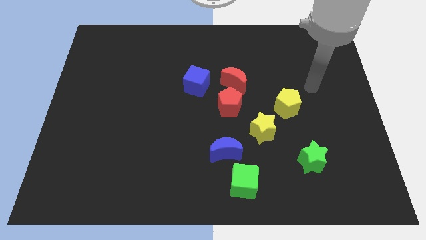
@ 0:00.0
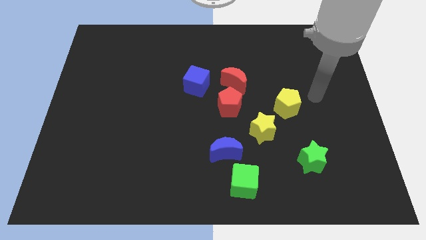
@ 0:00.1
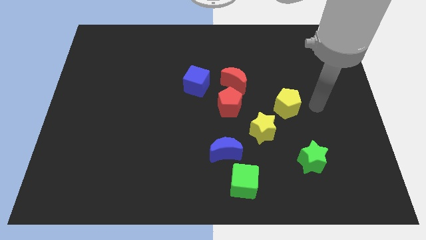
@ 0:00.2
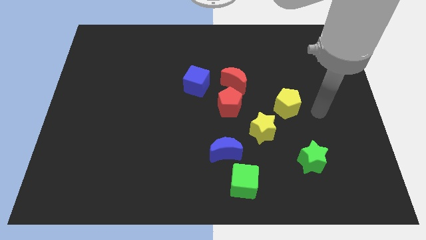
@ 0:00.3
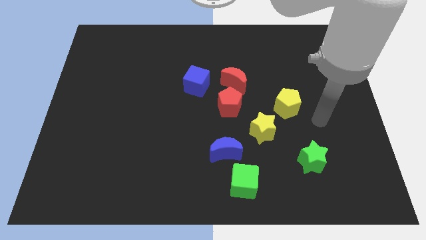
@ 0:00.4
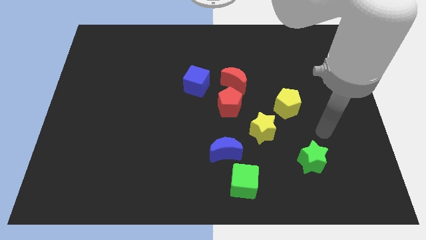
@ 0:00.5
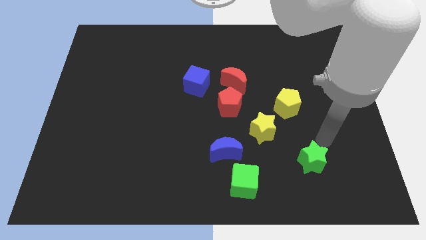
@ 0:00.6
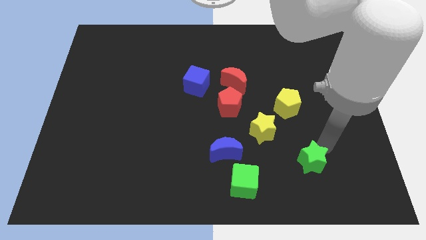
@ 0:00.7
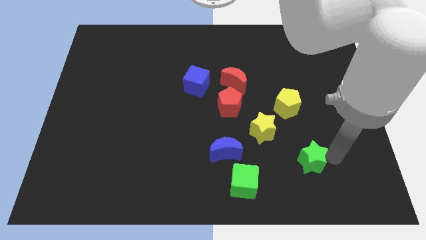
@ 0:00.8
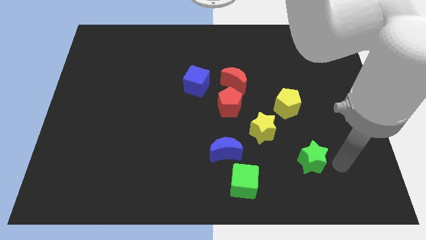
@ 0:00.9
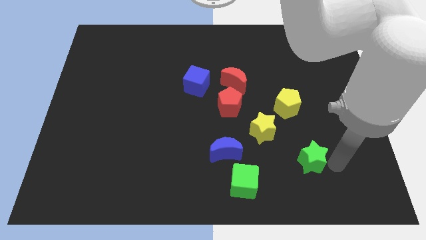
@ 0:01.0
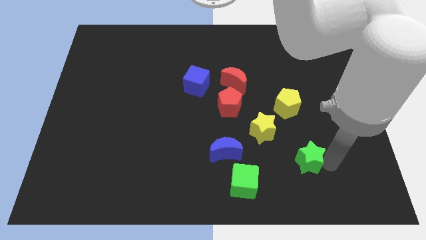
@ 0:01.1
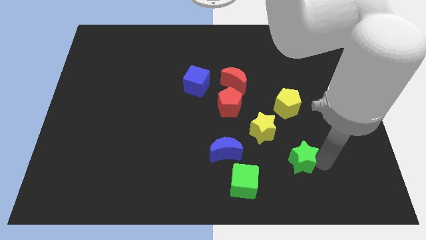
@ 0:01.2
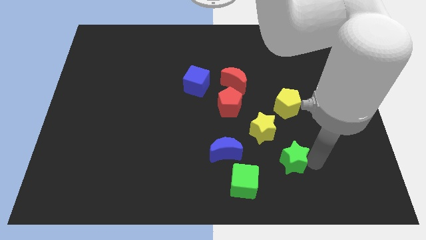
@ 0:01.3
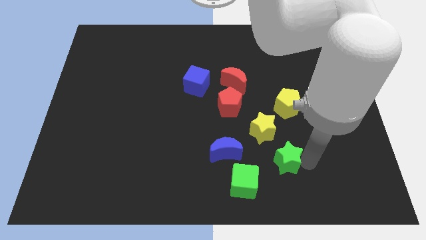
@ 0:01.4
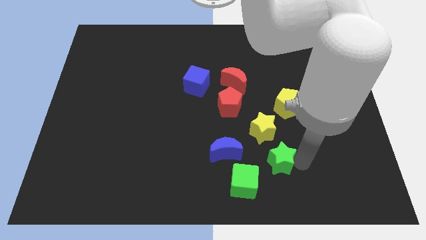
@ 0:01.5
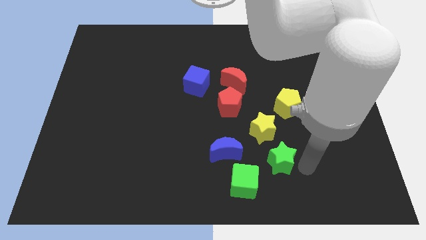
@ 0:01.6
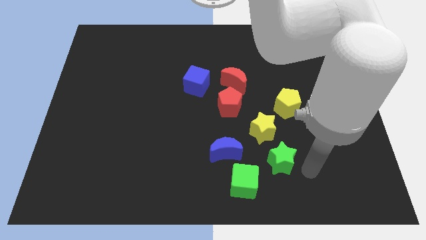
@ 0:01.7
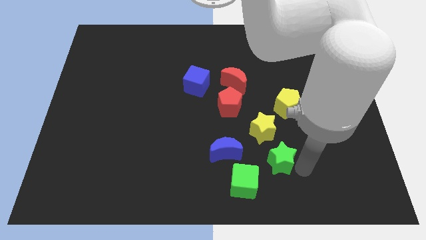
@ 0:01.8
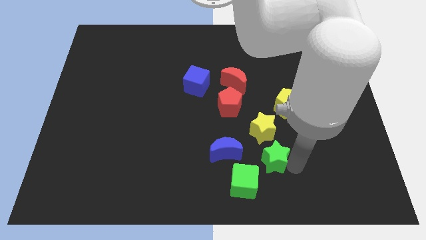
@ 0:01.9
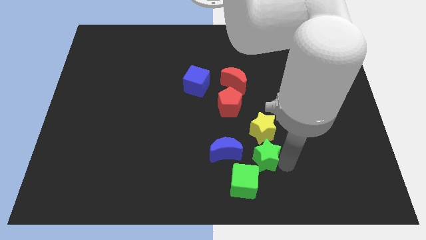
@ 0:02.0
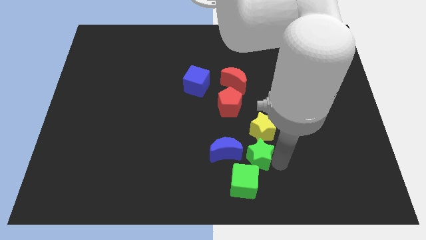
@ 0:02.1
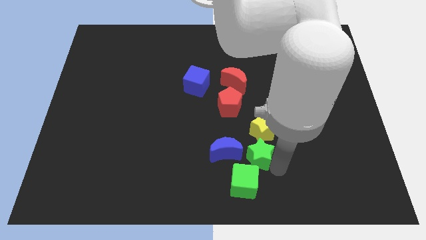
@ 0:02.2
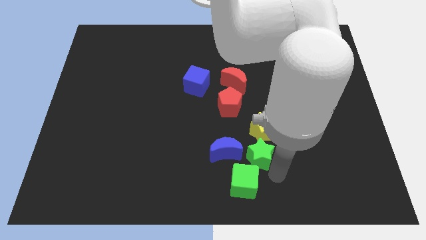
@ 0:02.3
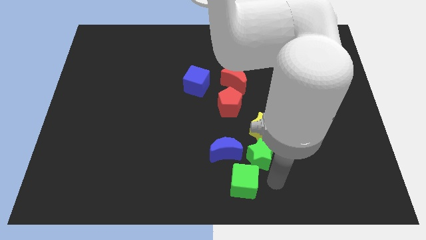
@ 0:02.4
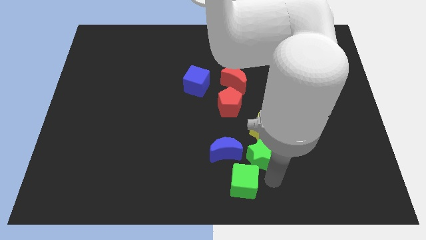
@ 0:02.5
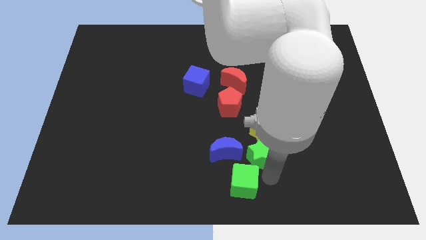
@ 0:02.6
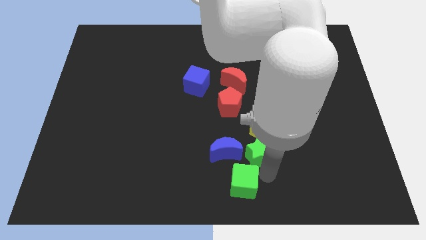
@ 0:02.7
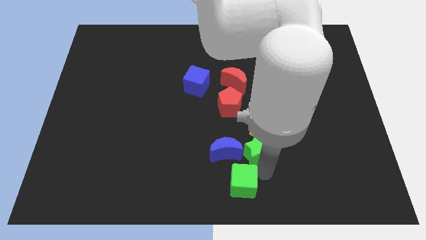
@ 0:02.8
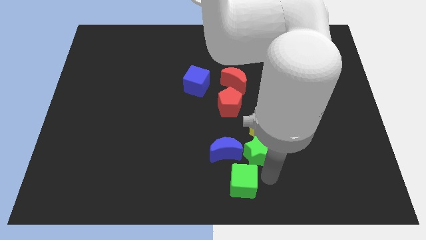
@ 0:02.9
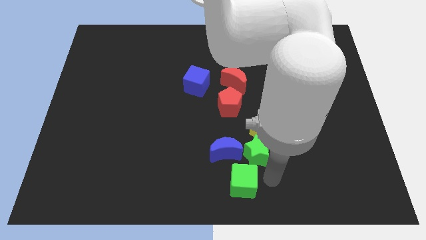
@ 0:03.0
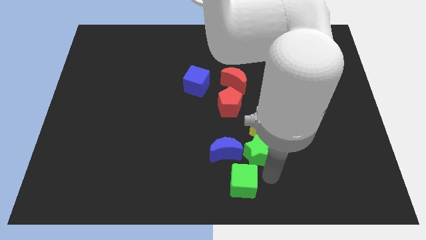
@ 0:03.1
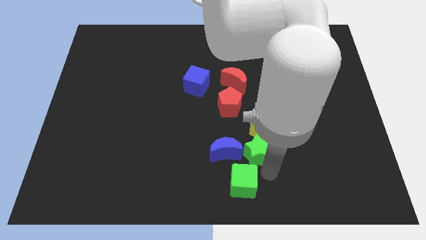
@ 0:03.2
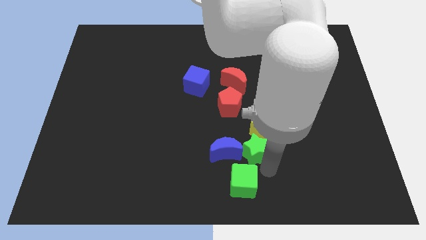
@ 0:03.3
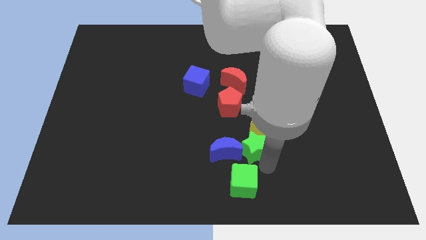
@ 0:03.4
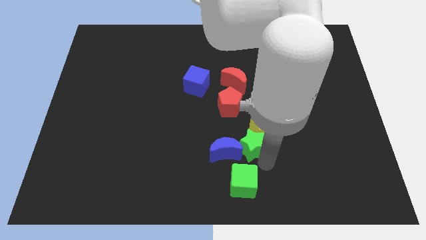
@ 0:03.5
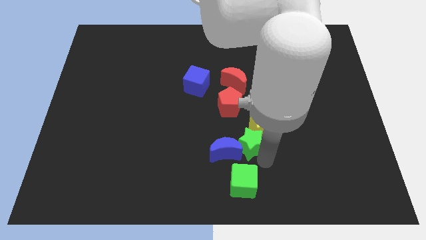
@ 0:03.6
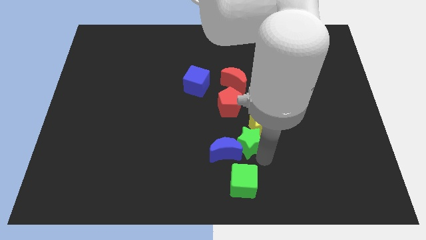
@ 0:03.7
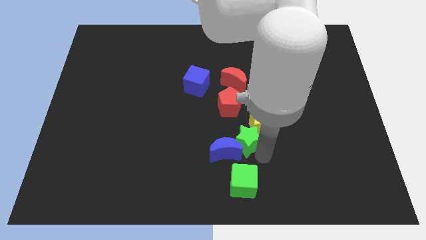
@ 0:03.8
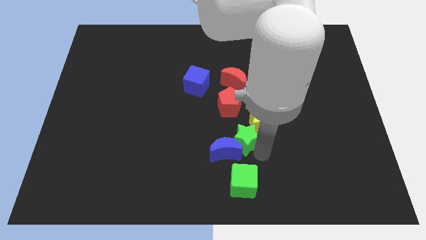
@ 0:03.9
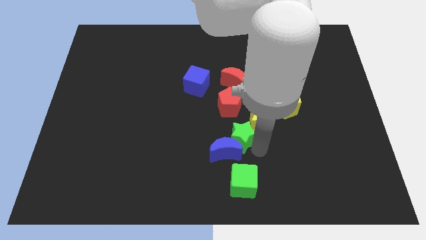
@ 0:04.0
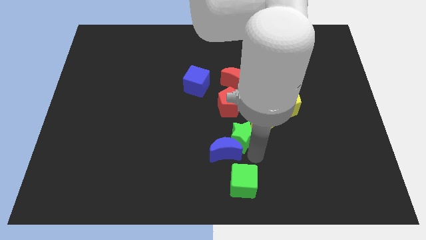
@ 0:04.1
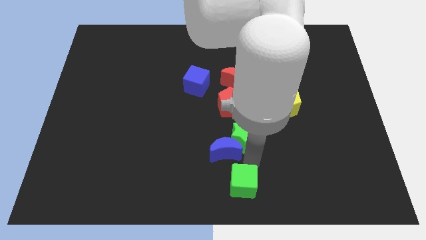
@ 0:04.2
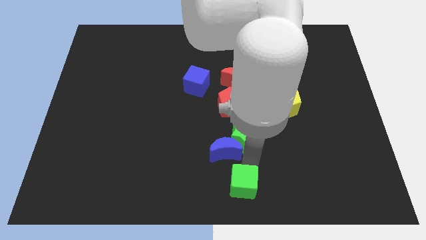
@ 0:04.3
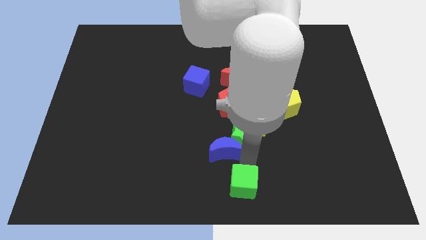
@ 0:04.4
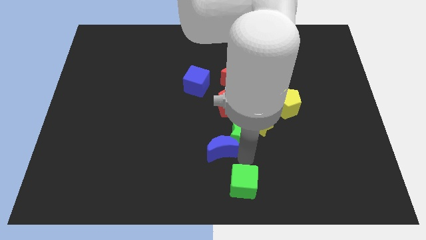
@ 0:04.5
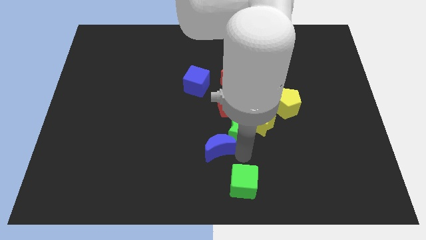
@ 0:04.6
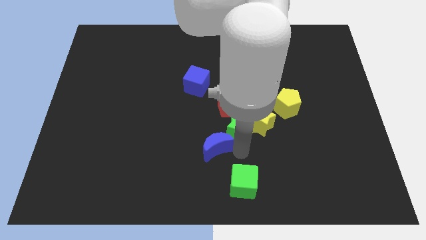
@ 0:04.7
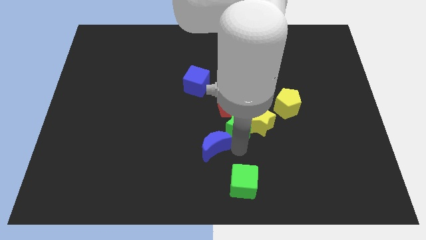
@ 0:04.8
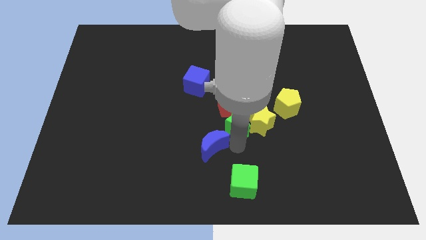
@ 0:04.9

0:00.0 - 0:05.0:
slide the green star close to the red pentagon

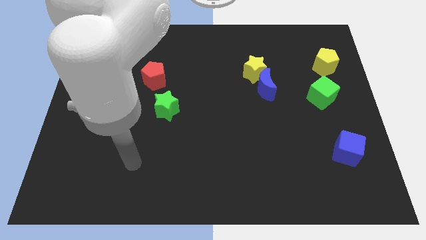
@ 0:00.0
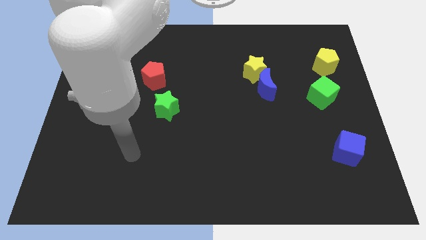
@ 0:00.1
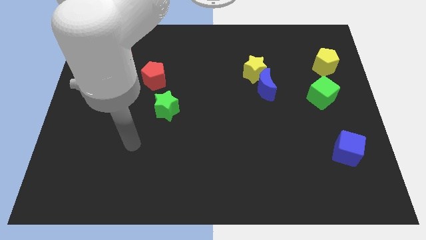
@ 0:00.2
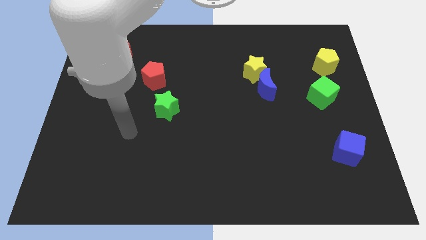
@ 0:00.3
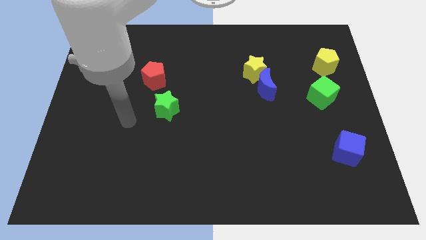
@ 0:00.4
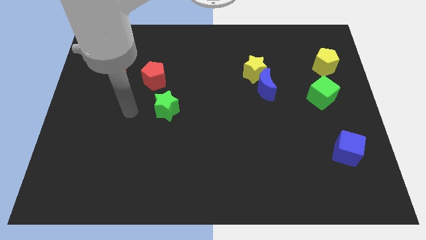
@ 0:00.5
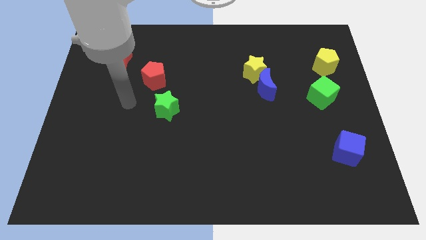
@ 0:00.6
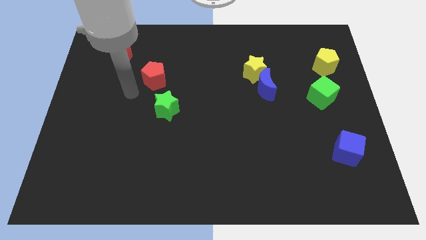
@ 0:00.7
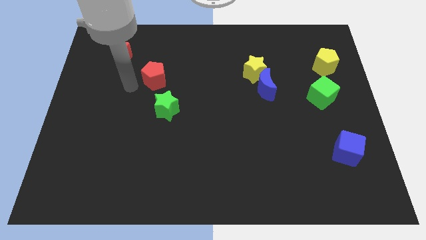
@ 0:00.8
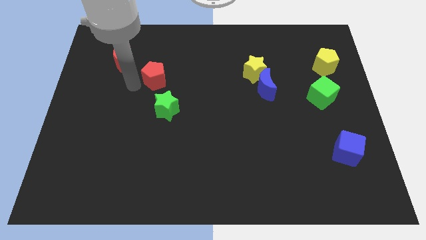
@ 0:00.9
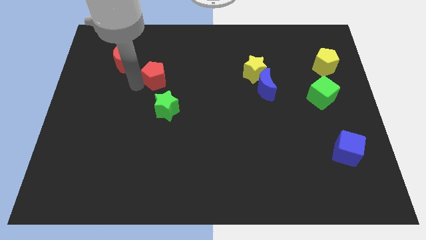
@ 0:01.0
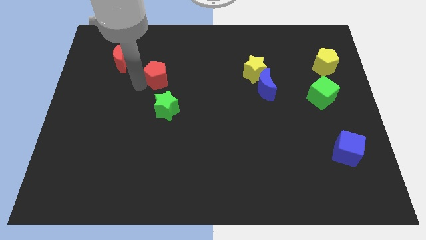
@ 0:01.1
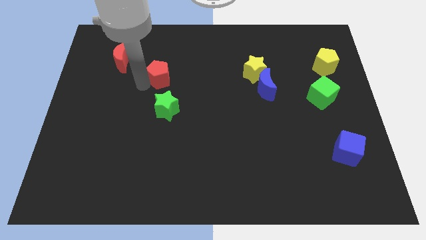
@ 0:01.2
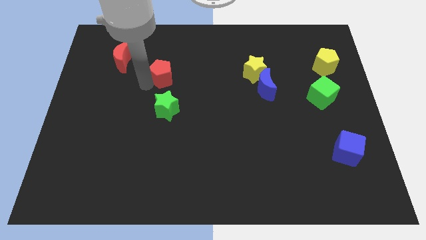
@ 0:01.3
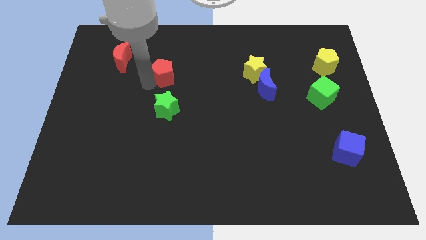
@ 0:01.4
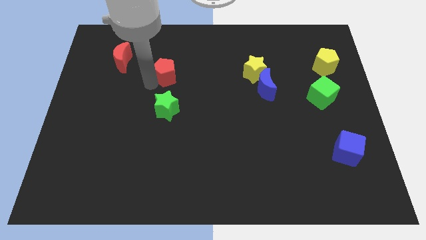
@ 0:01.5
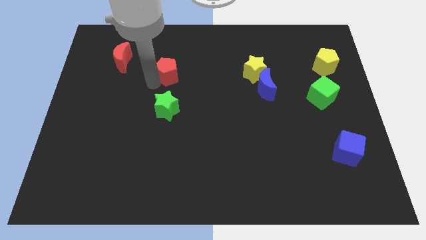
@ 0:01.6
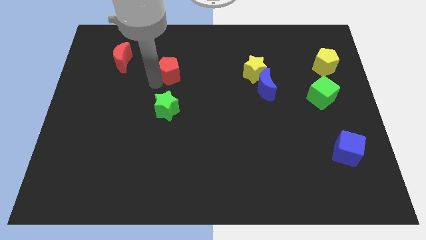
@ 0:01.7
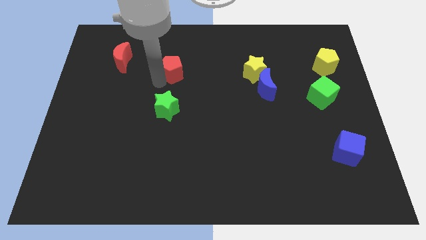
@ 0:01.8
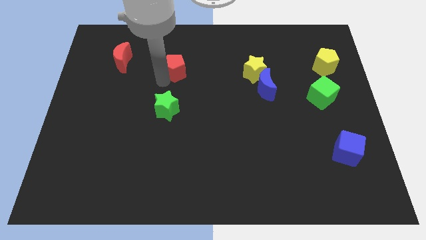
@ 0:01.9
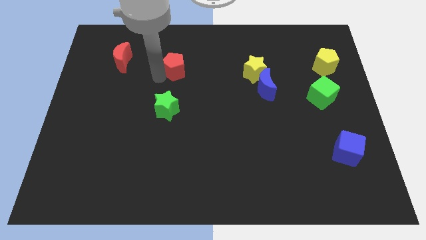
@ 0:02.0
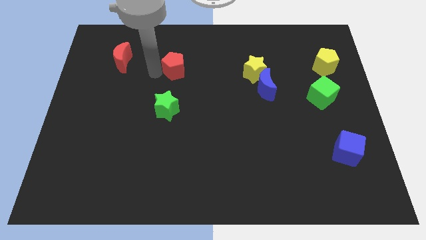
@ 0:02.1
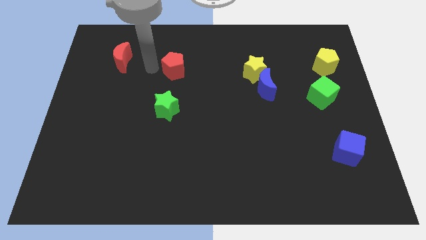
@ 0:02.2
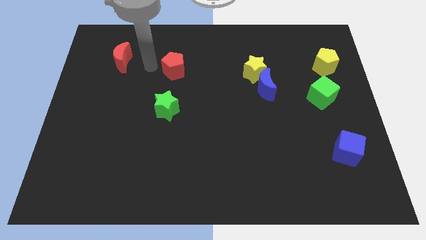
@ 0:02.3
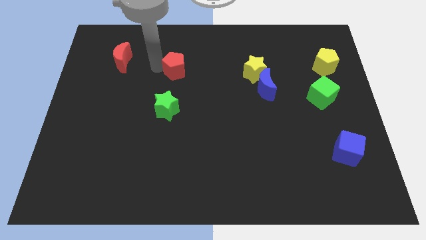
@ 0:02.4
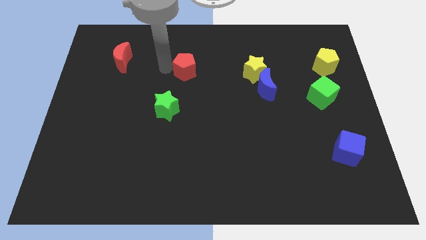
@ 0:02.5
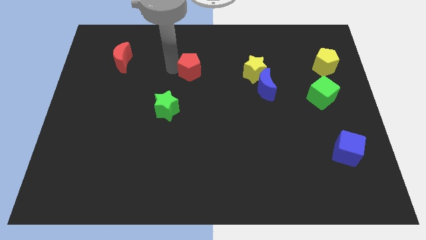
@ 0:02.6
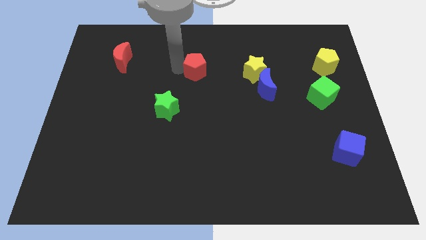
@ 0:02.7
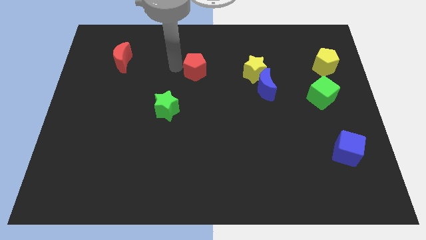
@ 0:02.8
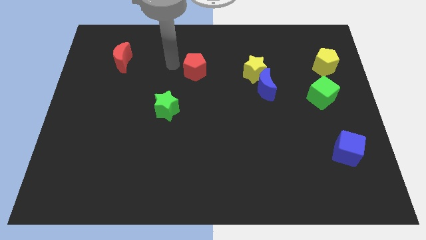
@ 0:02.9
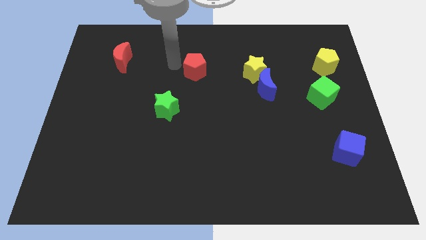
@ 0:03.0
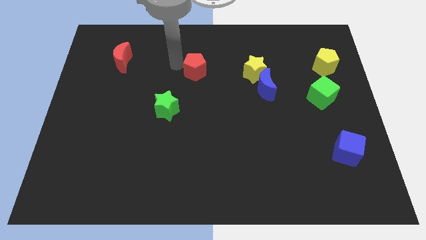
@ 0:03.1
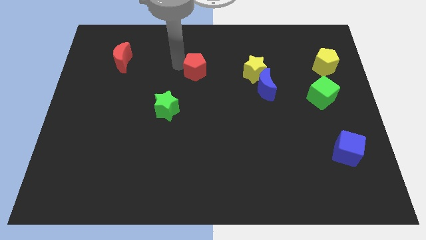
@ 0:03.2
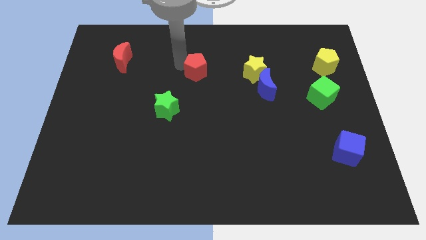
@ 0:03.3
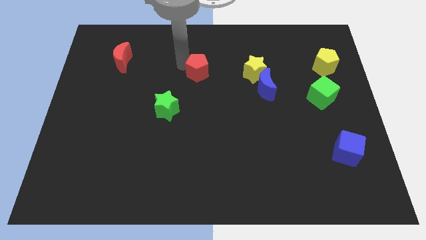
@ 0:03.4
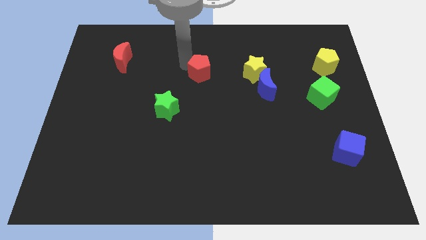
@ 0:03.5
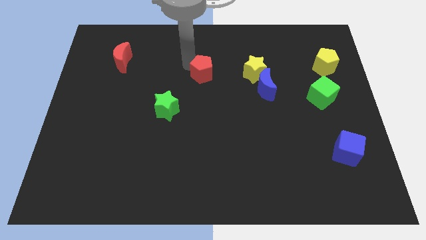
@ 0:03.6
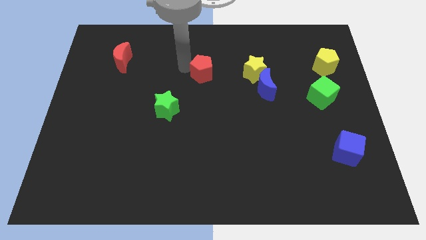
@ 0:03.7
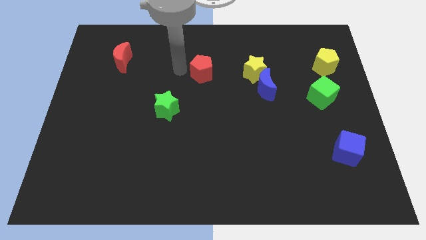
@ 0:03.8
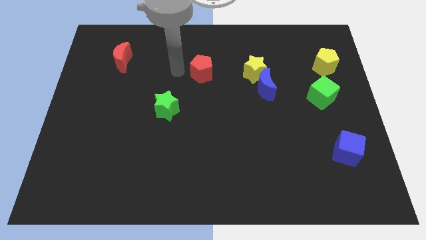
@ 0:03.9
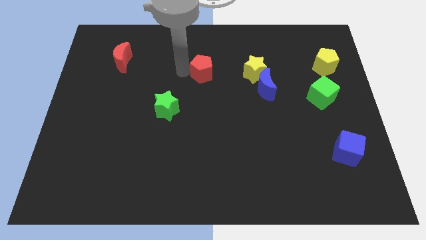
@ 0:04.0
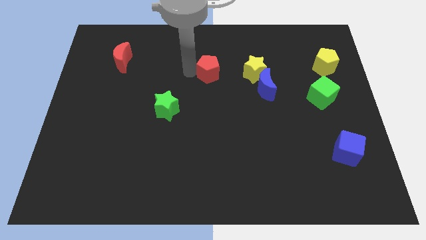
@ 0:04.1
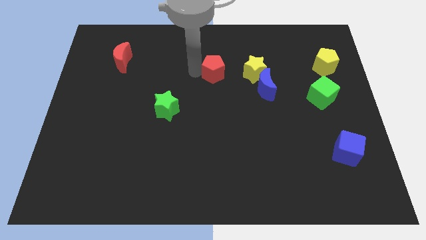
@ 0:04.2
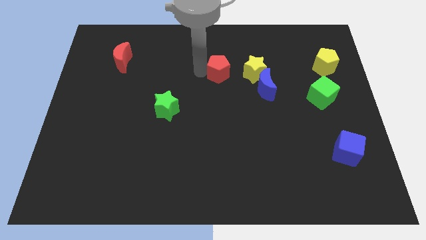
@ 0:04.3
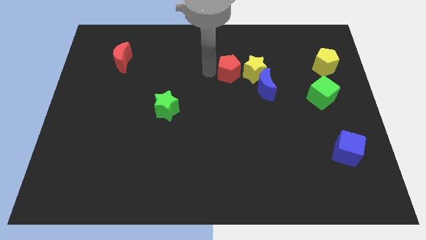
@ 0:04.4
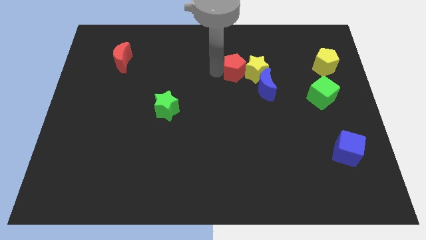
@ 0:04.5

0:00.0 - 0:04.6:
put the red pentagon next to the yellow star
